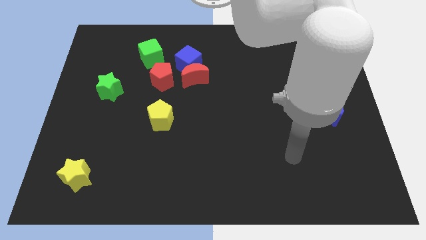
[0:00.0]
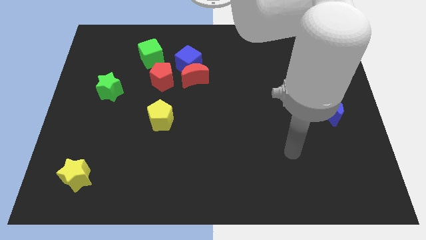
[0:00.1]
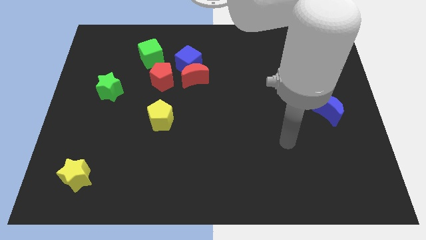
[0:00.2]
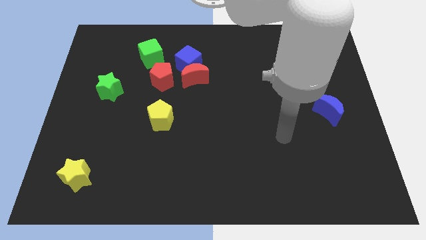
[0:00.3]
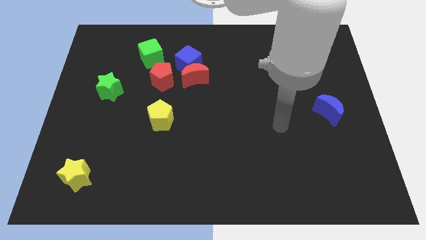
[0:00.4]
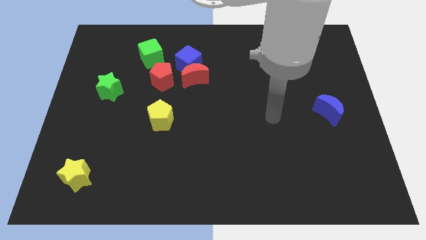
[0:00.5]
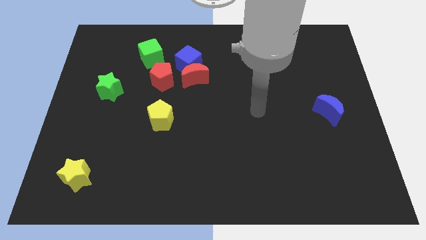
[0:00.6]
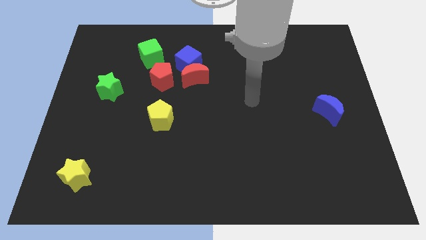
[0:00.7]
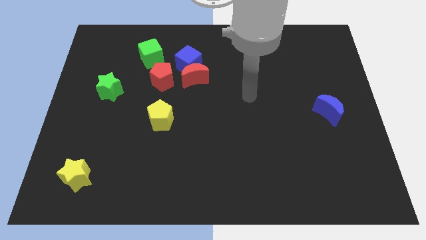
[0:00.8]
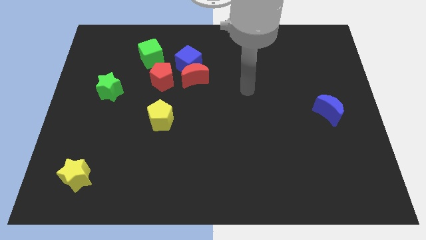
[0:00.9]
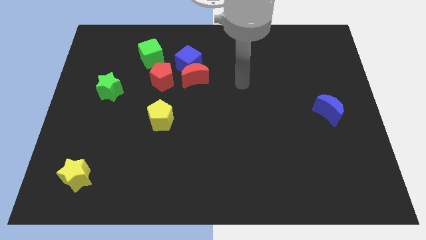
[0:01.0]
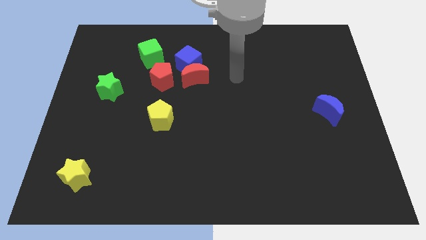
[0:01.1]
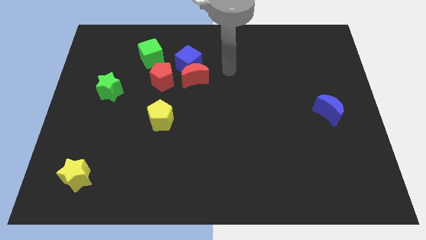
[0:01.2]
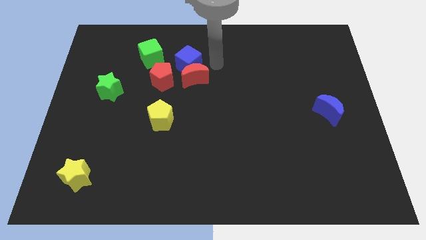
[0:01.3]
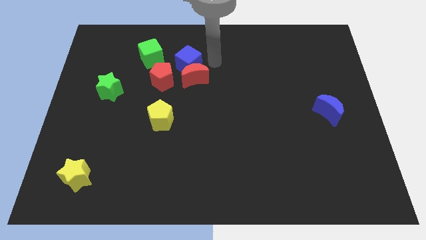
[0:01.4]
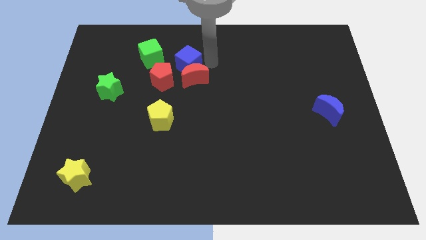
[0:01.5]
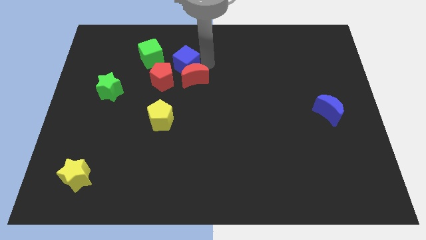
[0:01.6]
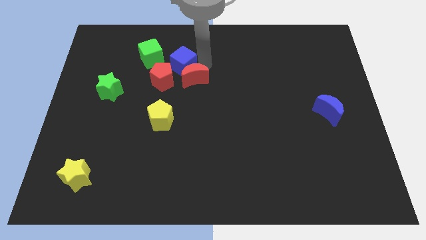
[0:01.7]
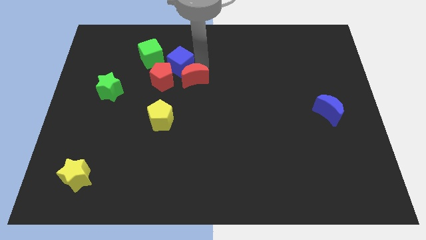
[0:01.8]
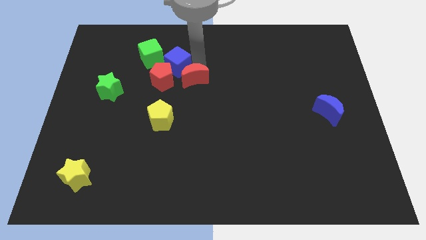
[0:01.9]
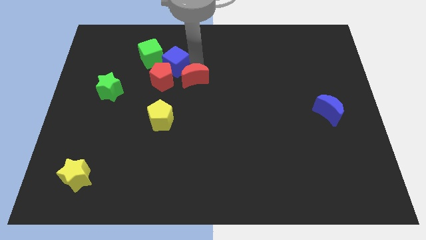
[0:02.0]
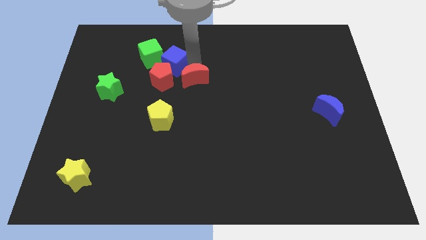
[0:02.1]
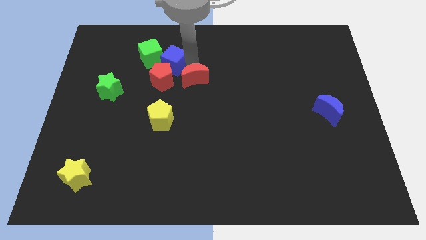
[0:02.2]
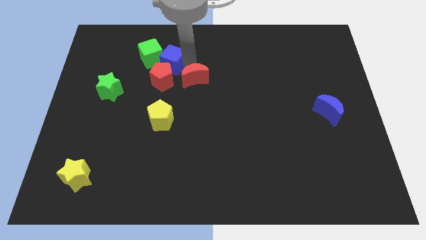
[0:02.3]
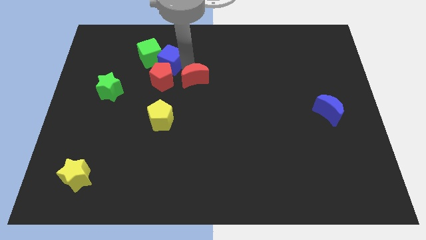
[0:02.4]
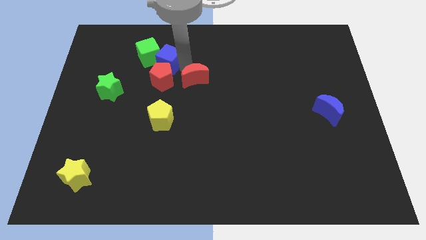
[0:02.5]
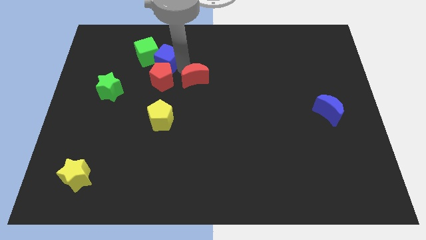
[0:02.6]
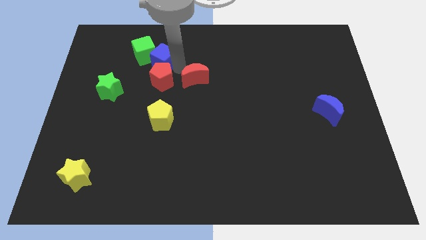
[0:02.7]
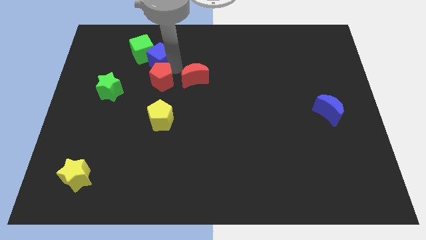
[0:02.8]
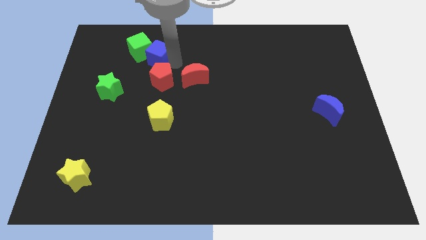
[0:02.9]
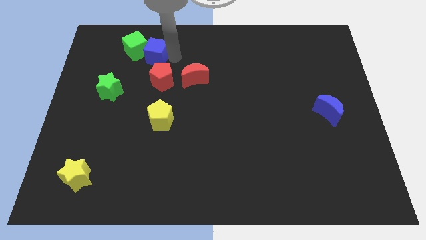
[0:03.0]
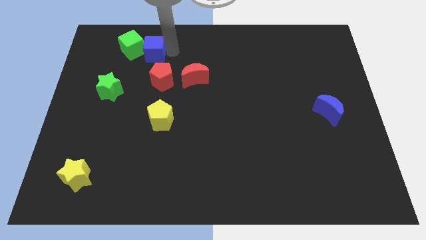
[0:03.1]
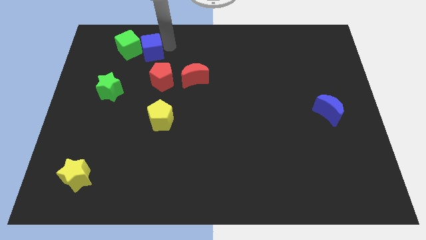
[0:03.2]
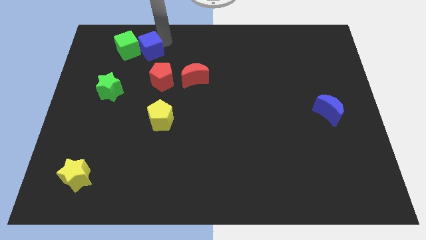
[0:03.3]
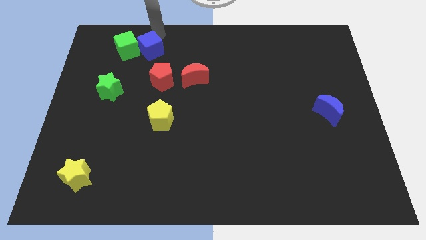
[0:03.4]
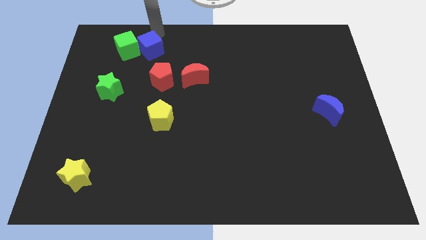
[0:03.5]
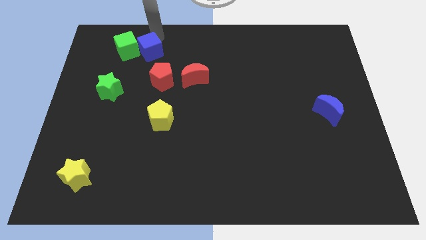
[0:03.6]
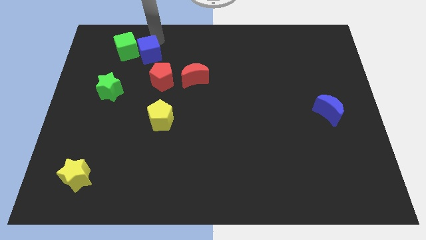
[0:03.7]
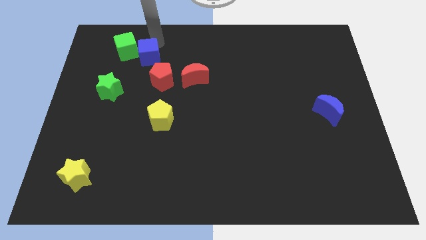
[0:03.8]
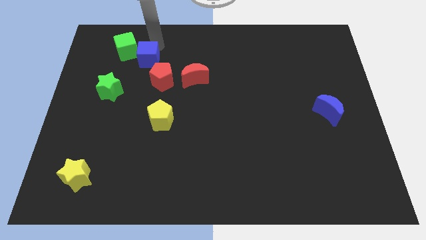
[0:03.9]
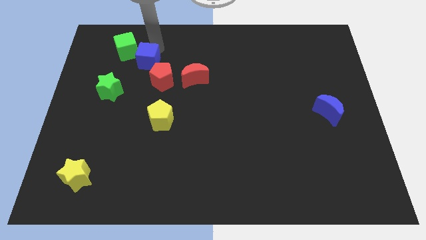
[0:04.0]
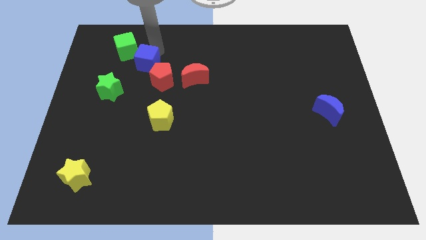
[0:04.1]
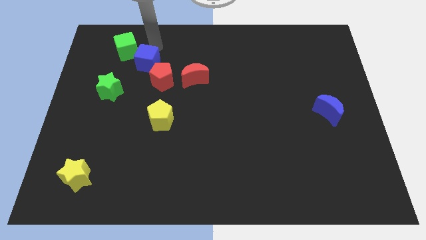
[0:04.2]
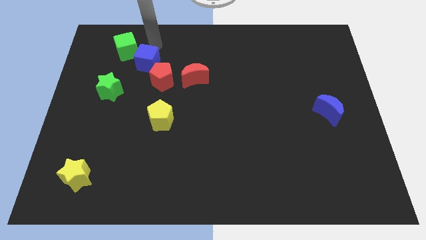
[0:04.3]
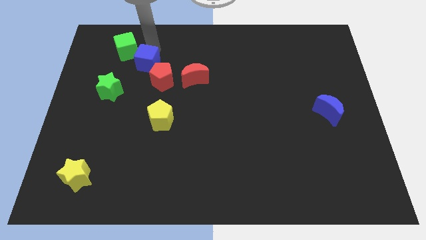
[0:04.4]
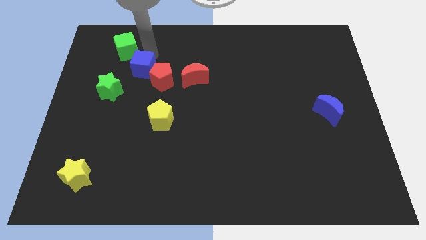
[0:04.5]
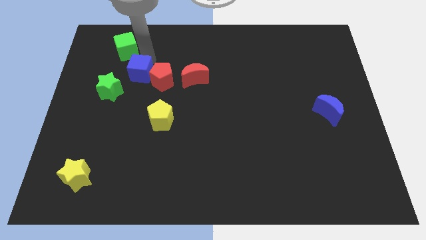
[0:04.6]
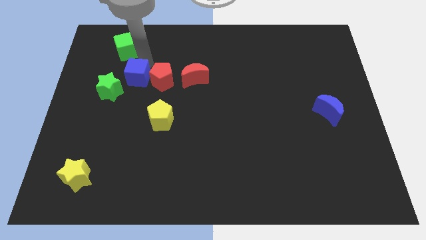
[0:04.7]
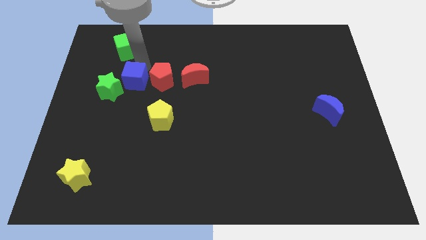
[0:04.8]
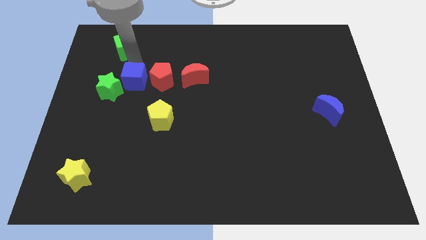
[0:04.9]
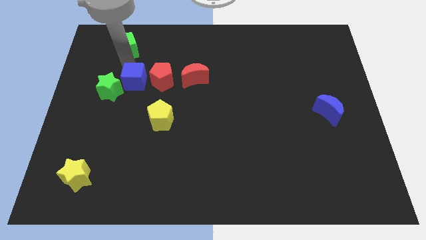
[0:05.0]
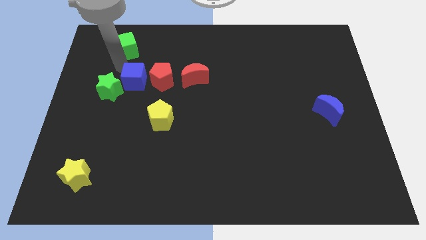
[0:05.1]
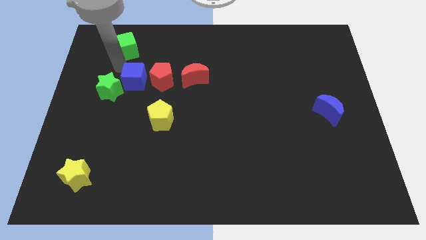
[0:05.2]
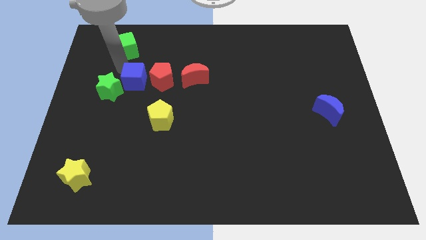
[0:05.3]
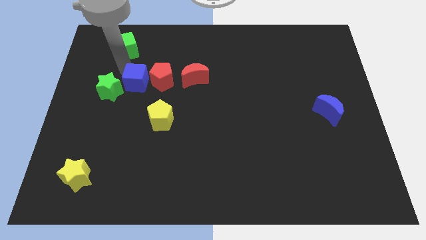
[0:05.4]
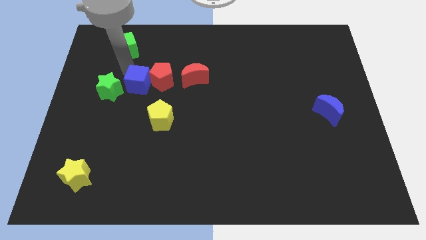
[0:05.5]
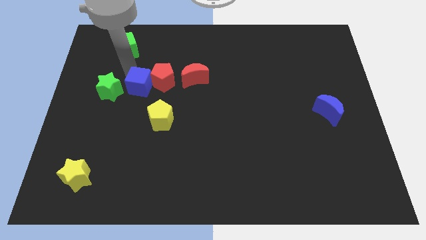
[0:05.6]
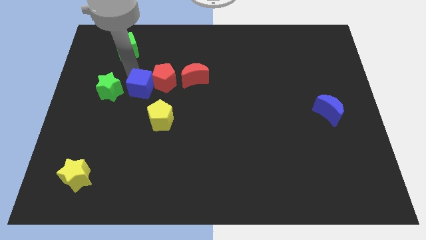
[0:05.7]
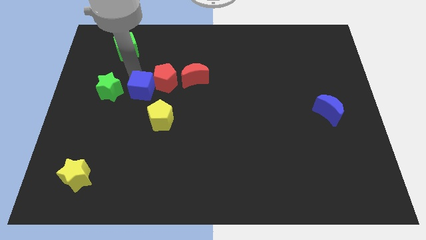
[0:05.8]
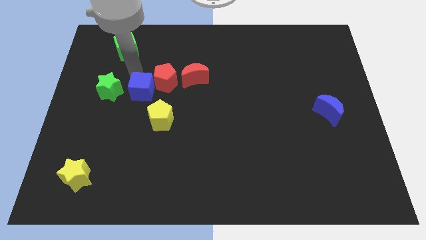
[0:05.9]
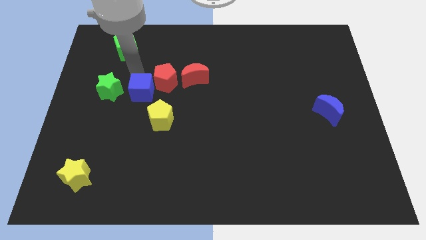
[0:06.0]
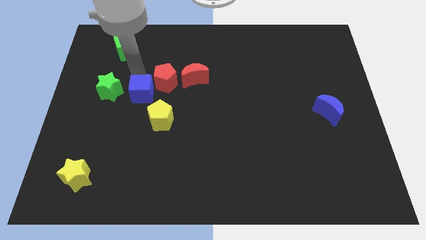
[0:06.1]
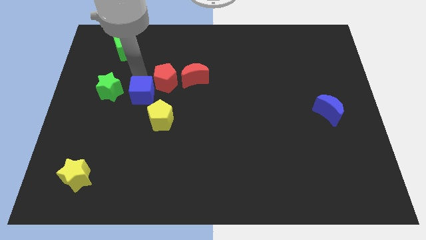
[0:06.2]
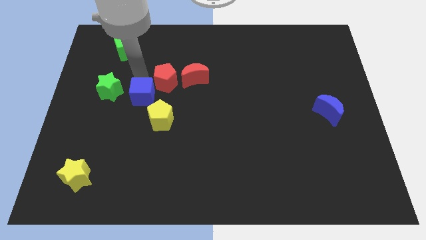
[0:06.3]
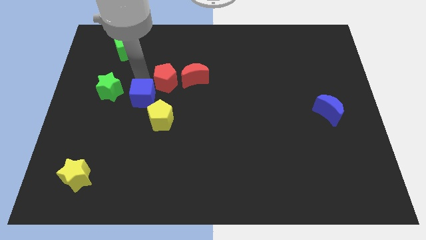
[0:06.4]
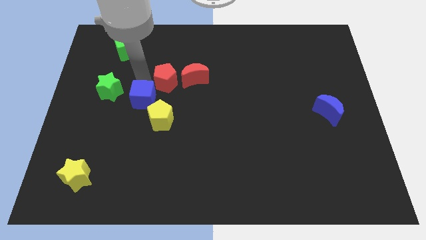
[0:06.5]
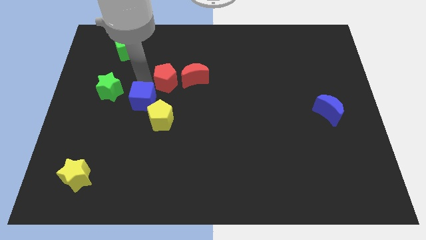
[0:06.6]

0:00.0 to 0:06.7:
slightly push the blue cube down

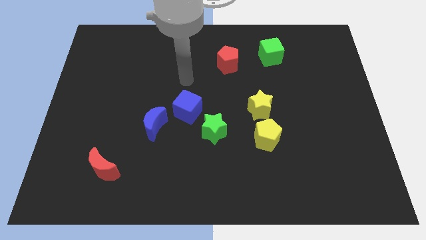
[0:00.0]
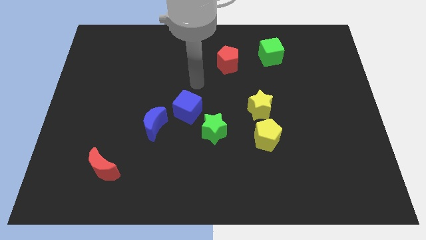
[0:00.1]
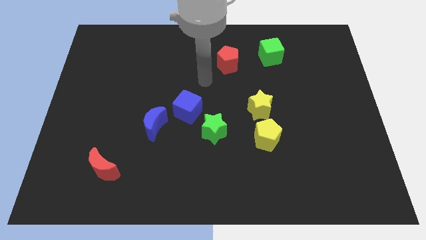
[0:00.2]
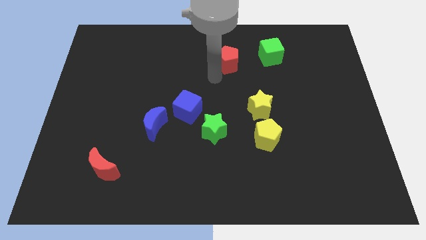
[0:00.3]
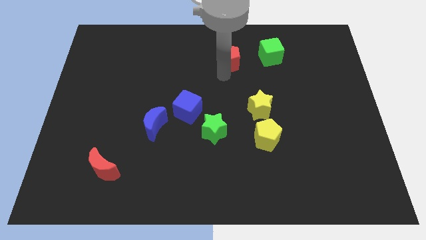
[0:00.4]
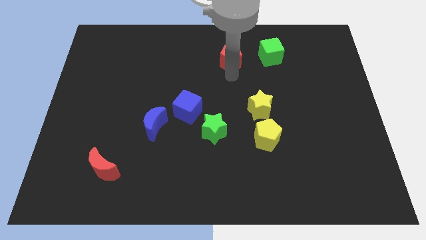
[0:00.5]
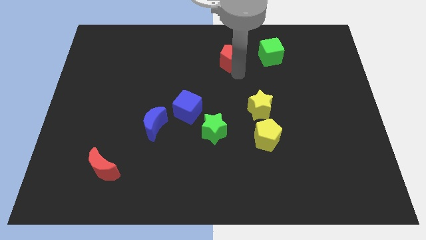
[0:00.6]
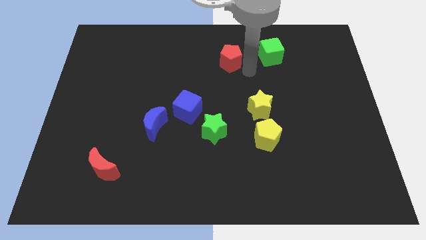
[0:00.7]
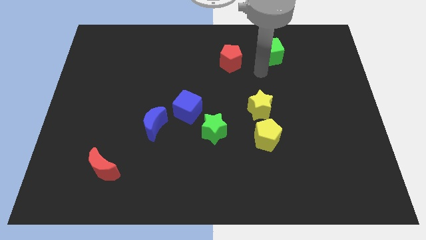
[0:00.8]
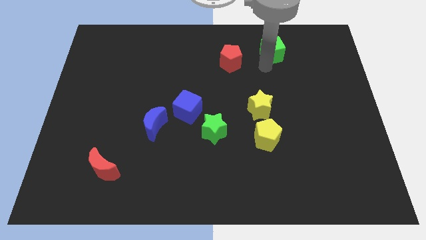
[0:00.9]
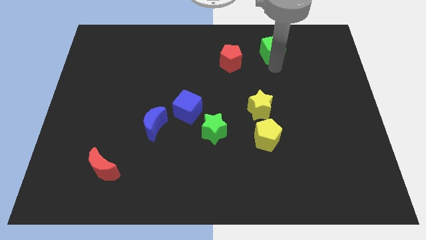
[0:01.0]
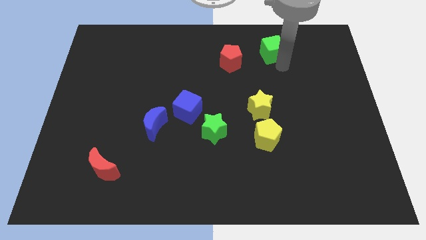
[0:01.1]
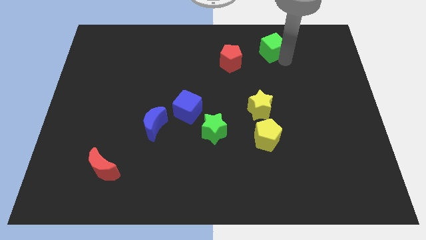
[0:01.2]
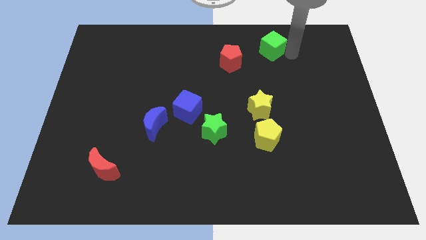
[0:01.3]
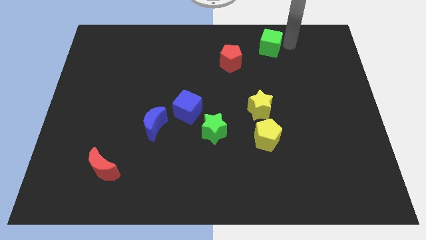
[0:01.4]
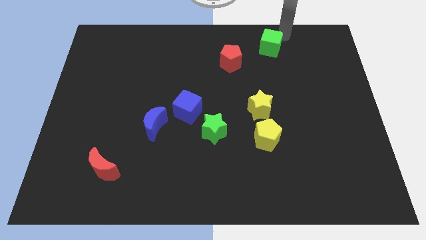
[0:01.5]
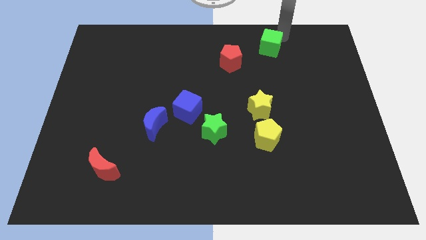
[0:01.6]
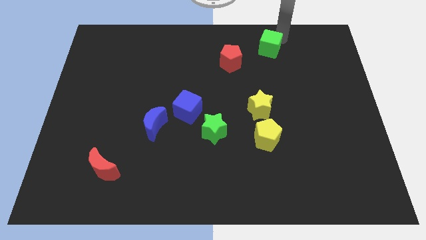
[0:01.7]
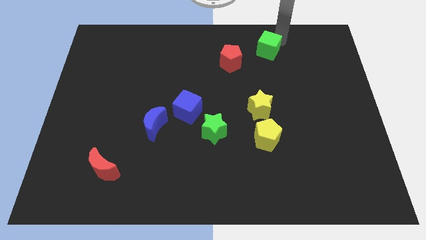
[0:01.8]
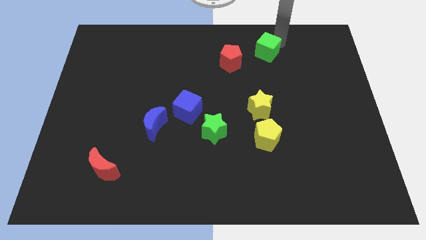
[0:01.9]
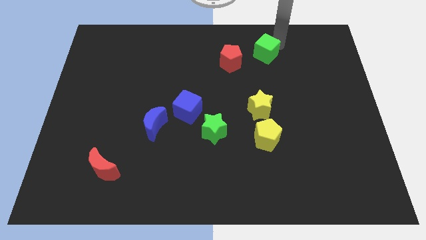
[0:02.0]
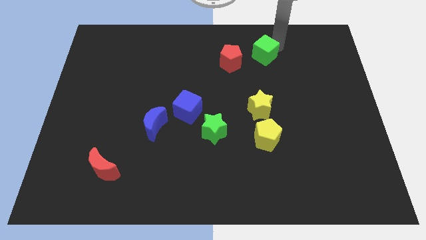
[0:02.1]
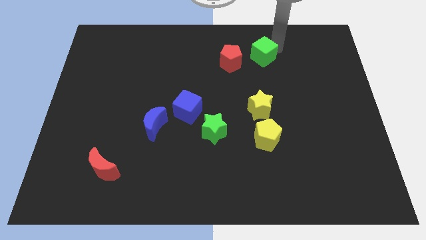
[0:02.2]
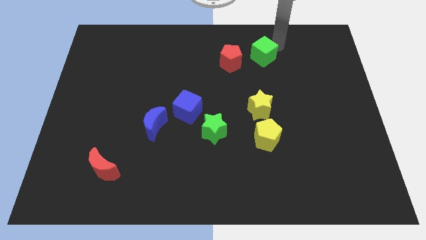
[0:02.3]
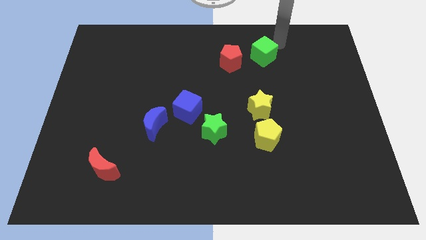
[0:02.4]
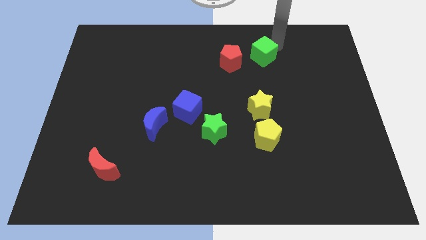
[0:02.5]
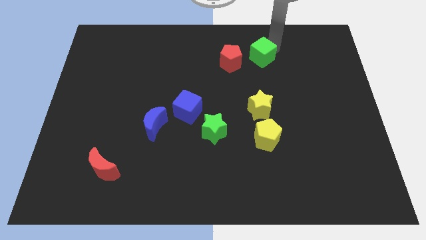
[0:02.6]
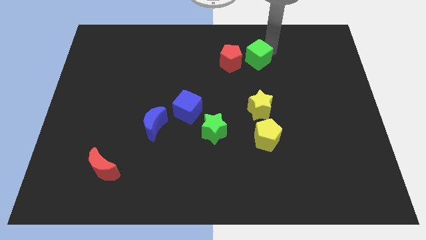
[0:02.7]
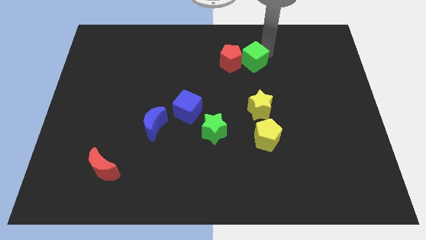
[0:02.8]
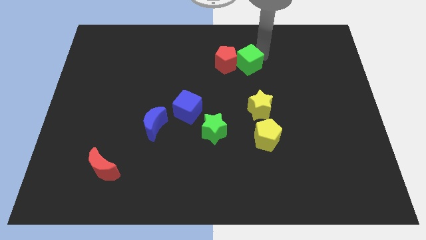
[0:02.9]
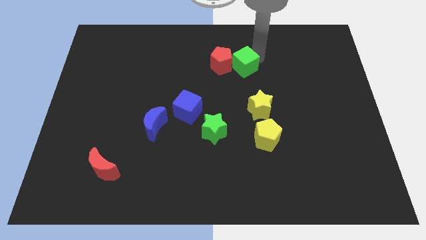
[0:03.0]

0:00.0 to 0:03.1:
slightly push the green cube down and to the left
